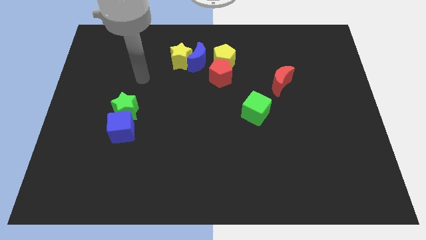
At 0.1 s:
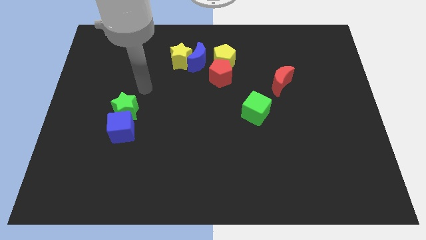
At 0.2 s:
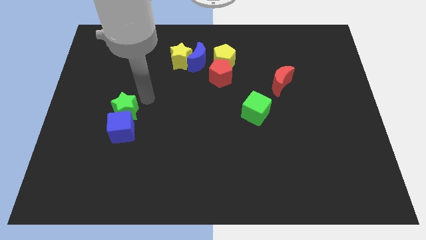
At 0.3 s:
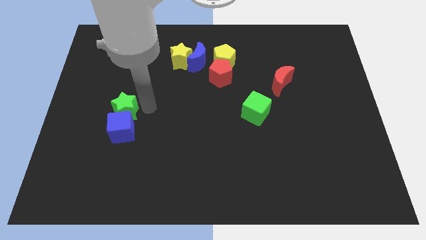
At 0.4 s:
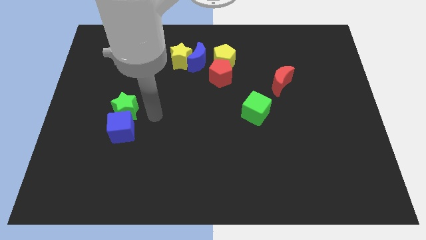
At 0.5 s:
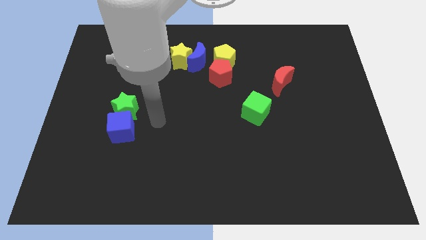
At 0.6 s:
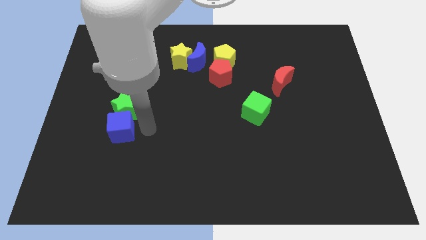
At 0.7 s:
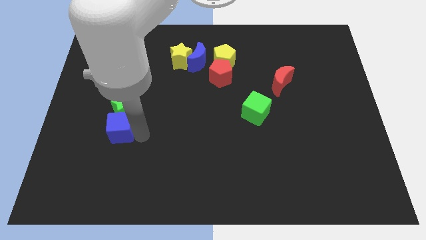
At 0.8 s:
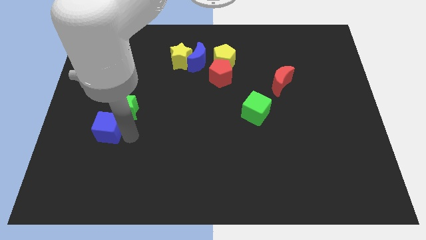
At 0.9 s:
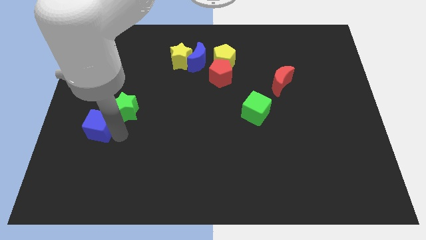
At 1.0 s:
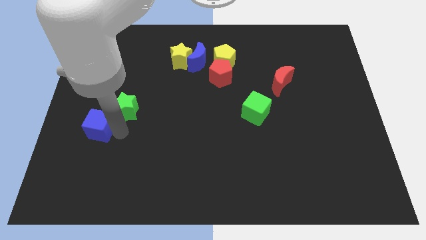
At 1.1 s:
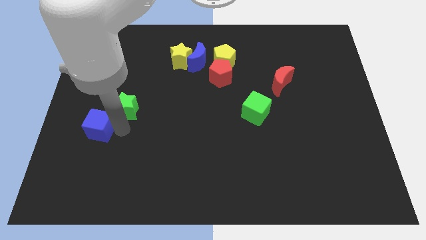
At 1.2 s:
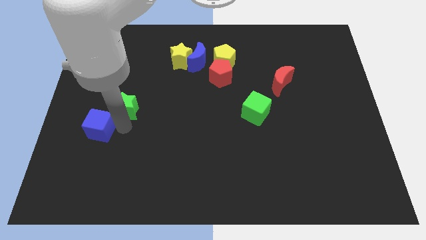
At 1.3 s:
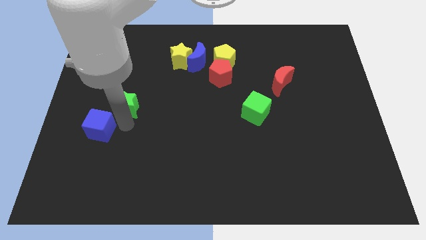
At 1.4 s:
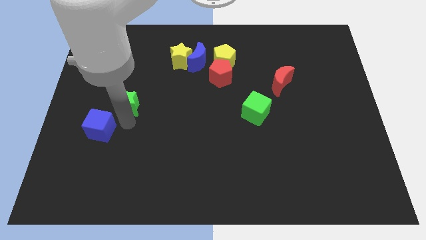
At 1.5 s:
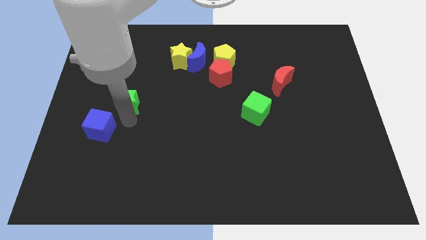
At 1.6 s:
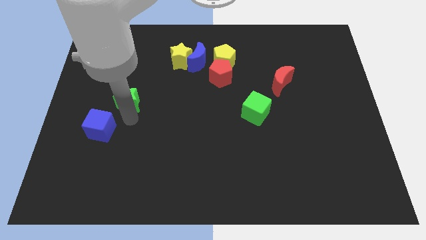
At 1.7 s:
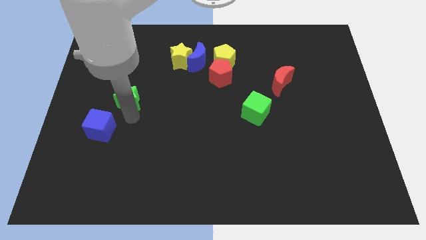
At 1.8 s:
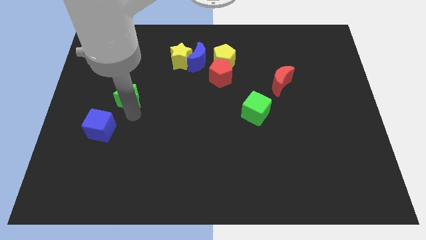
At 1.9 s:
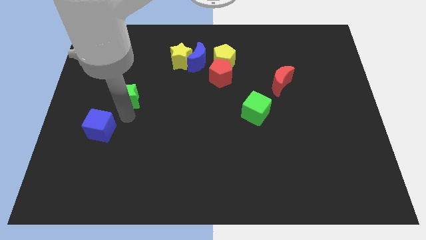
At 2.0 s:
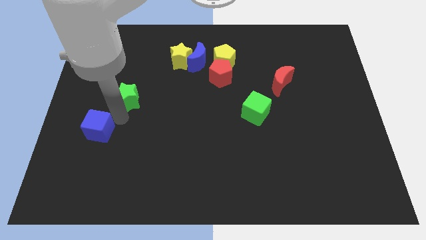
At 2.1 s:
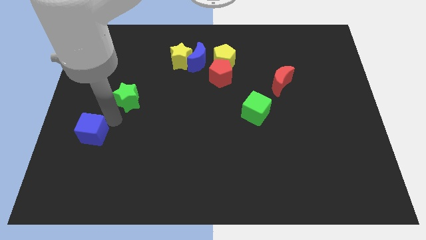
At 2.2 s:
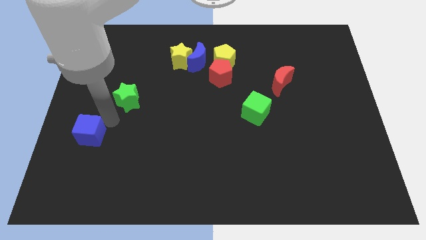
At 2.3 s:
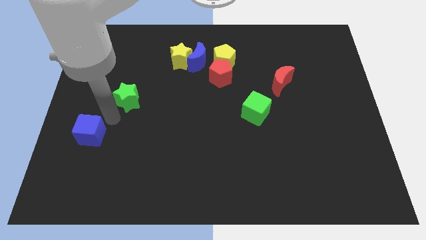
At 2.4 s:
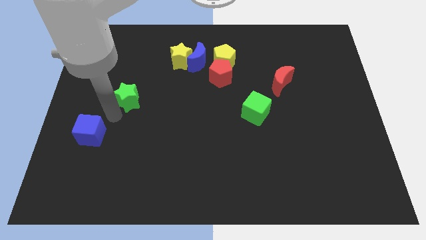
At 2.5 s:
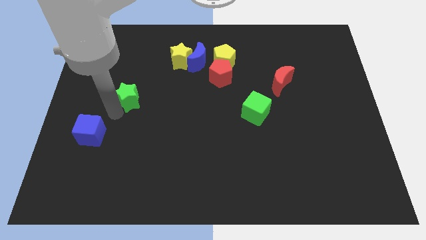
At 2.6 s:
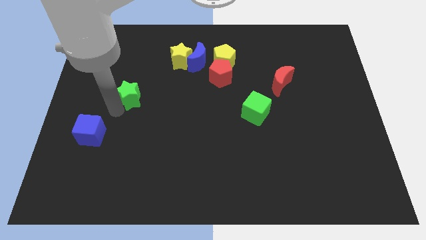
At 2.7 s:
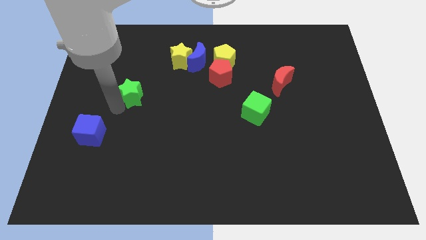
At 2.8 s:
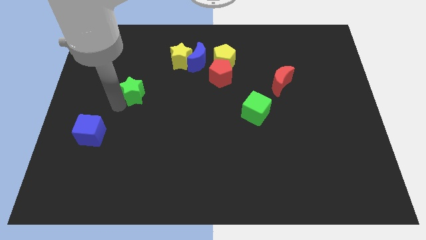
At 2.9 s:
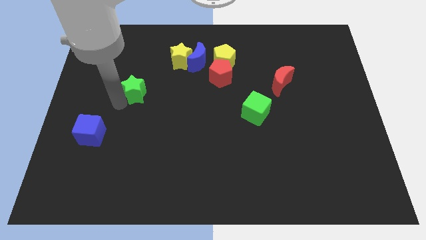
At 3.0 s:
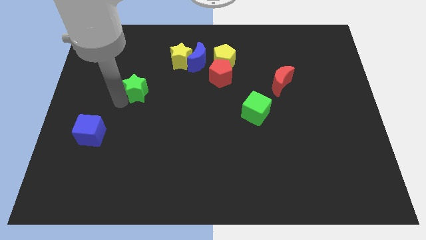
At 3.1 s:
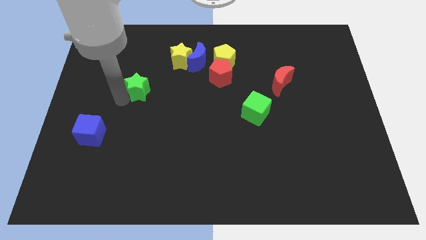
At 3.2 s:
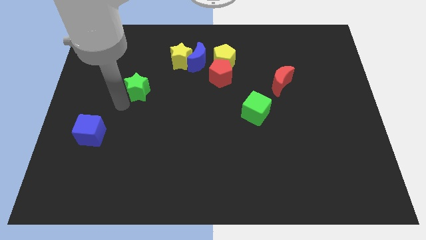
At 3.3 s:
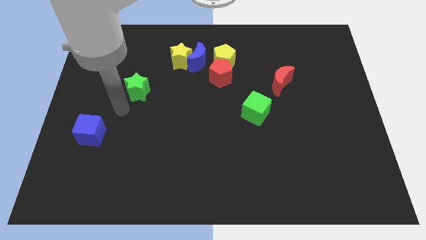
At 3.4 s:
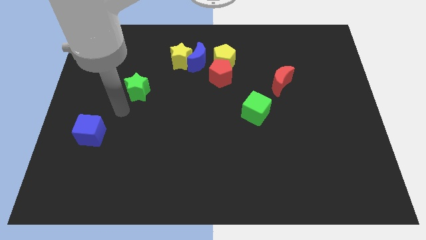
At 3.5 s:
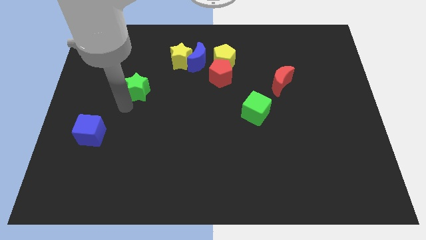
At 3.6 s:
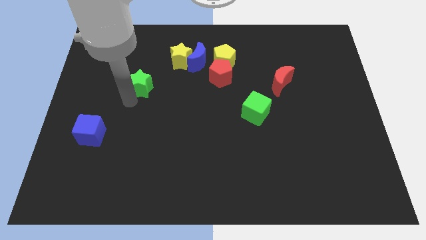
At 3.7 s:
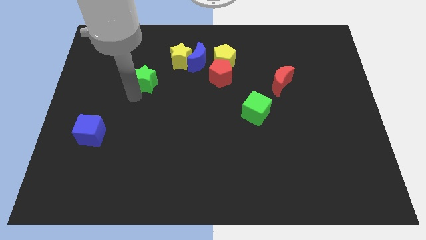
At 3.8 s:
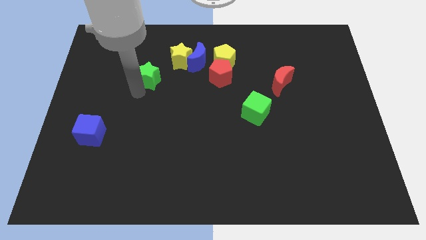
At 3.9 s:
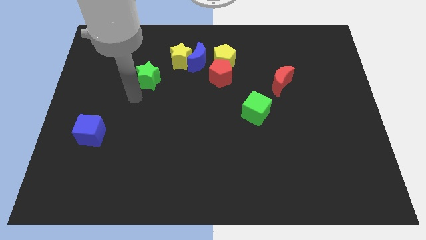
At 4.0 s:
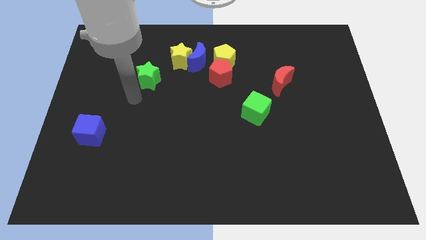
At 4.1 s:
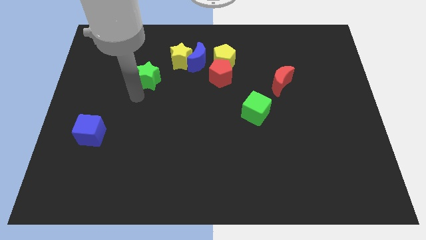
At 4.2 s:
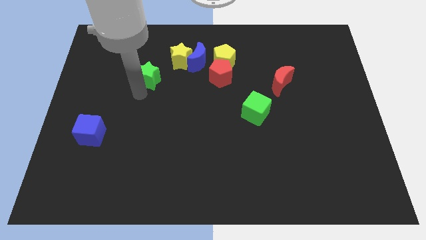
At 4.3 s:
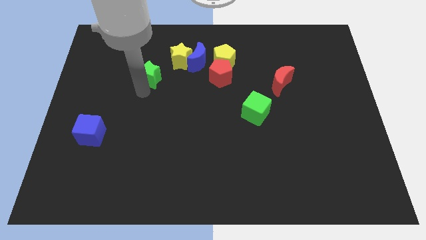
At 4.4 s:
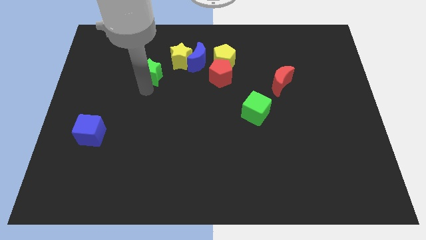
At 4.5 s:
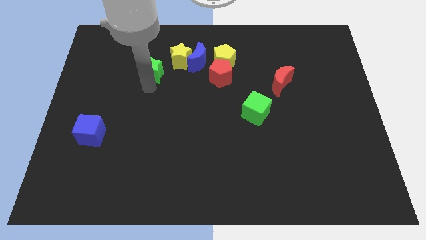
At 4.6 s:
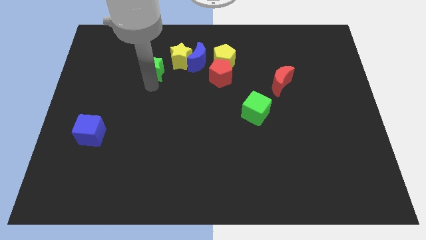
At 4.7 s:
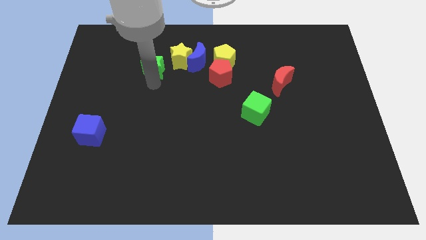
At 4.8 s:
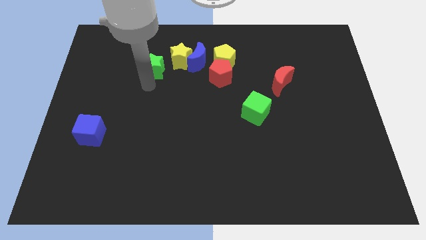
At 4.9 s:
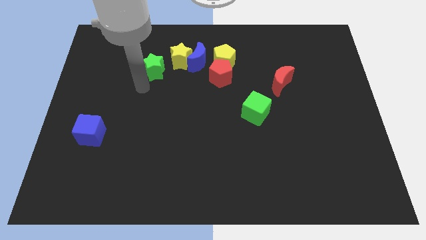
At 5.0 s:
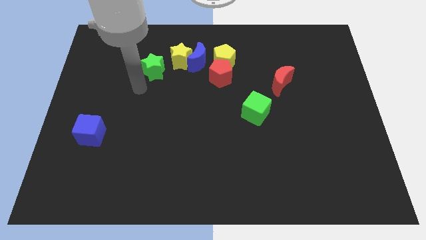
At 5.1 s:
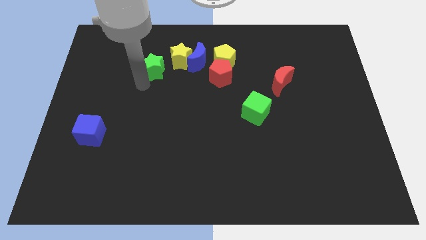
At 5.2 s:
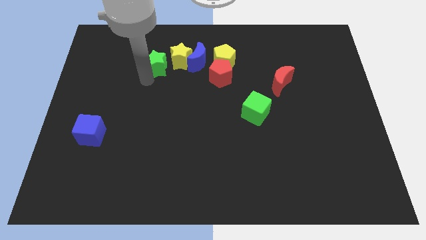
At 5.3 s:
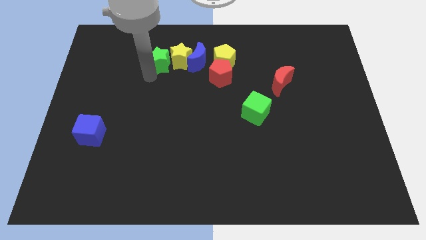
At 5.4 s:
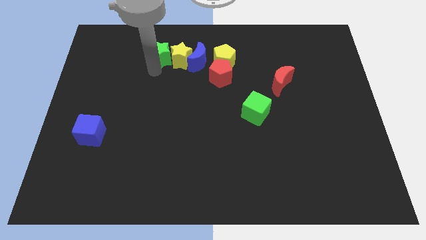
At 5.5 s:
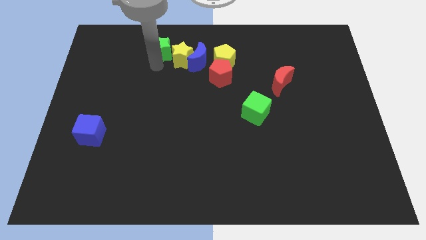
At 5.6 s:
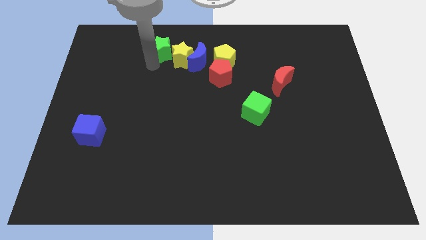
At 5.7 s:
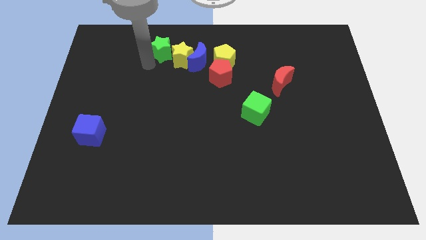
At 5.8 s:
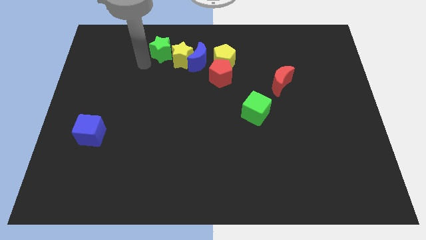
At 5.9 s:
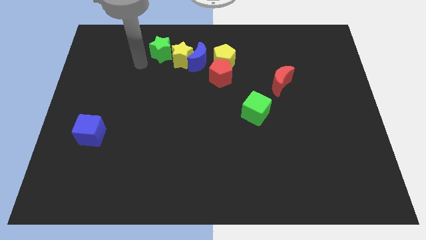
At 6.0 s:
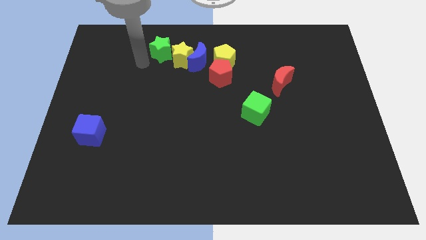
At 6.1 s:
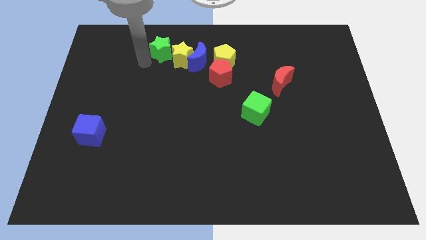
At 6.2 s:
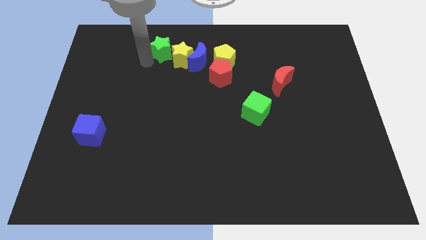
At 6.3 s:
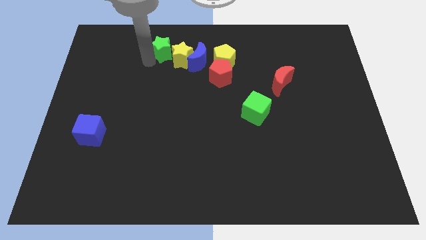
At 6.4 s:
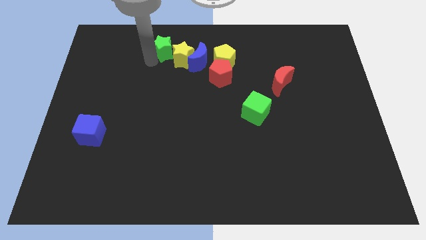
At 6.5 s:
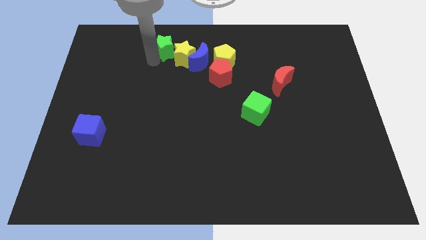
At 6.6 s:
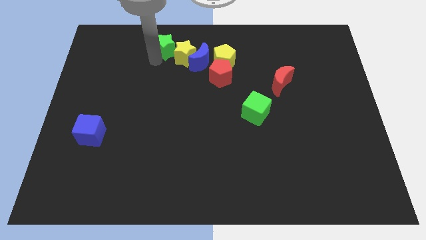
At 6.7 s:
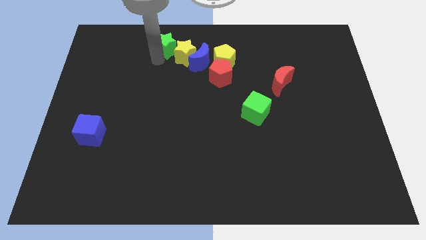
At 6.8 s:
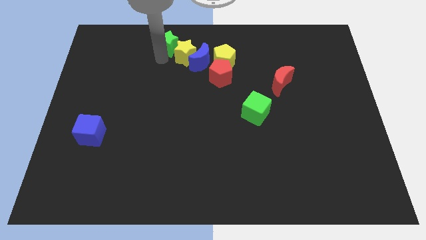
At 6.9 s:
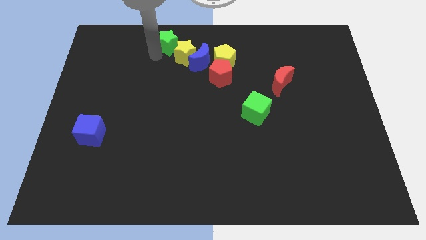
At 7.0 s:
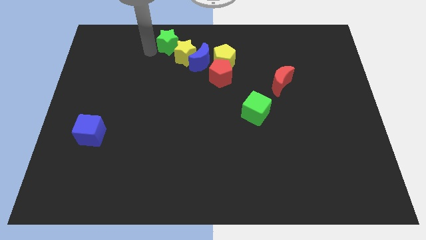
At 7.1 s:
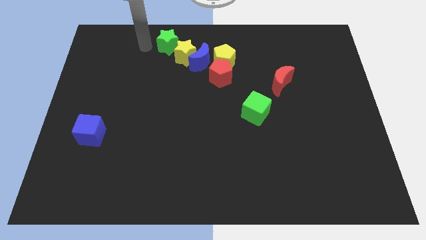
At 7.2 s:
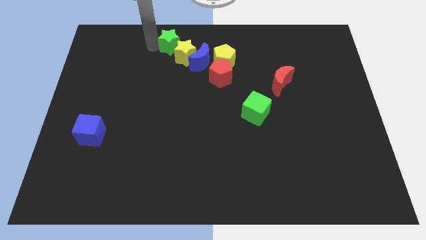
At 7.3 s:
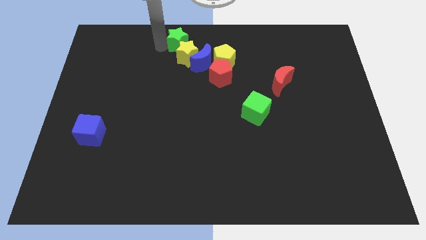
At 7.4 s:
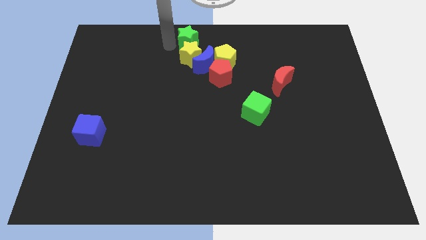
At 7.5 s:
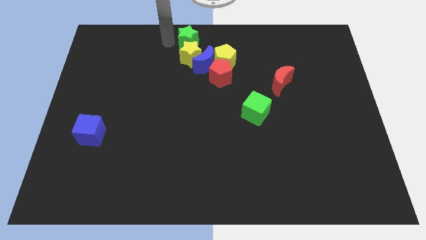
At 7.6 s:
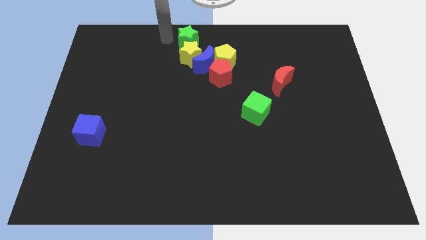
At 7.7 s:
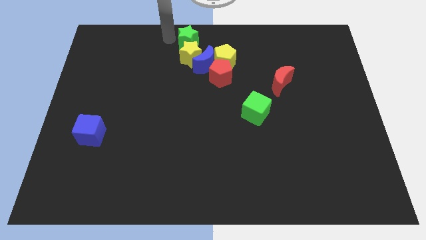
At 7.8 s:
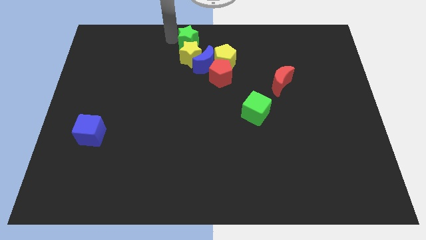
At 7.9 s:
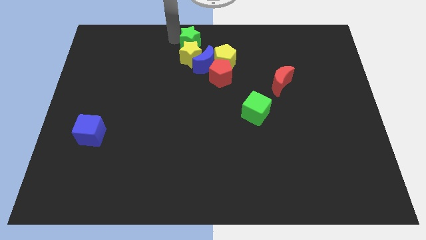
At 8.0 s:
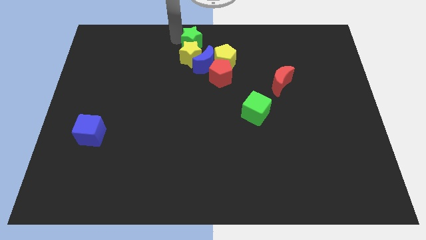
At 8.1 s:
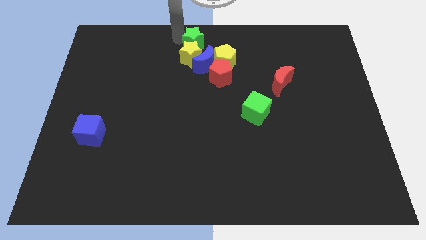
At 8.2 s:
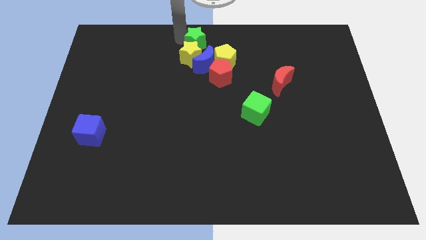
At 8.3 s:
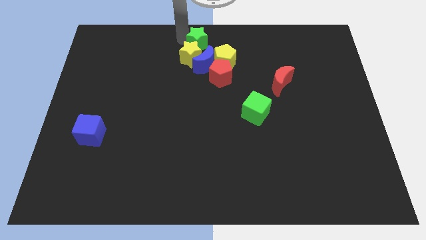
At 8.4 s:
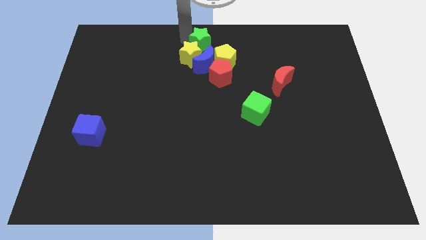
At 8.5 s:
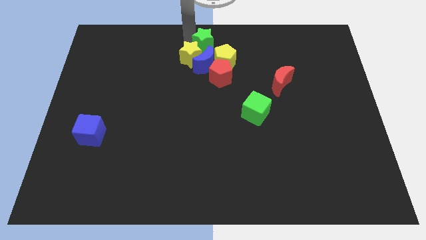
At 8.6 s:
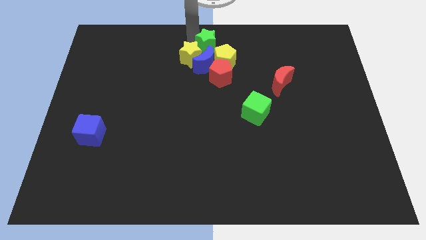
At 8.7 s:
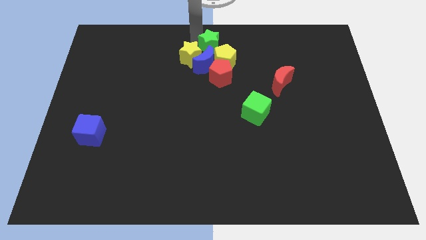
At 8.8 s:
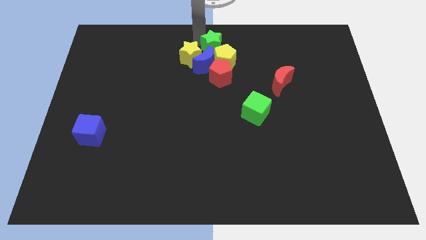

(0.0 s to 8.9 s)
move the green star close to the yellow pentagon
